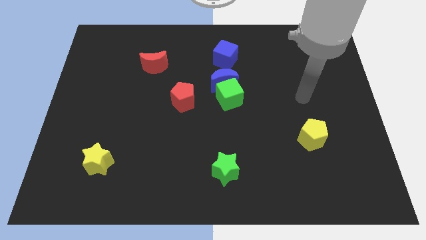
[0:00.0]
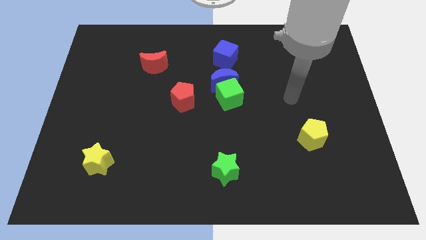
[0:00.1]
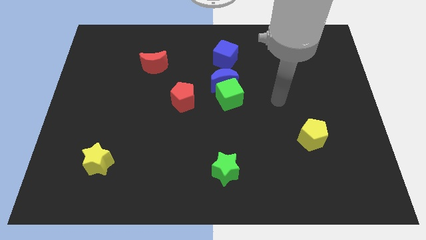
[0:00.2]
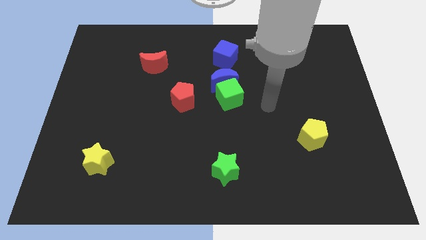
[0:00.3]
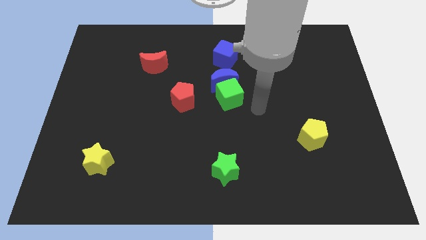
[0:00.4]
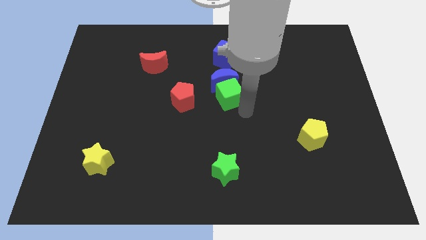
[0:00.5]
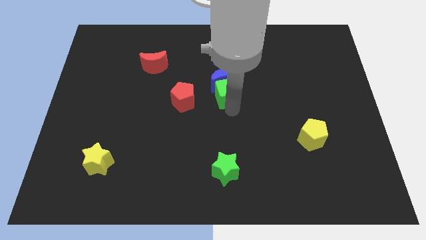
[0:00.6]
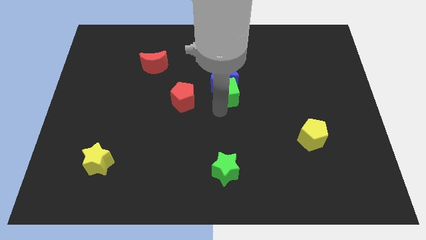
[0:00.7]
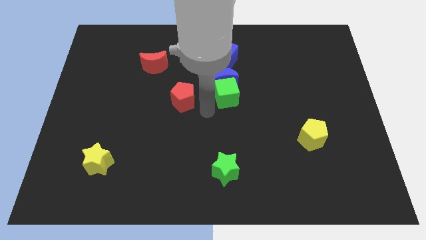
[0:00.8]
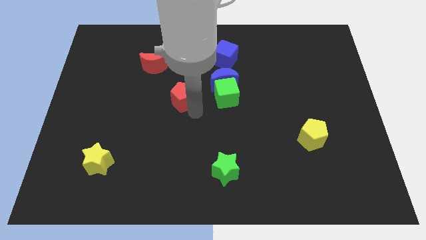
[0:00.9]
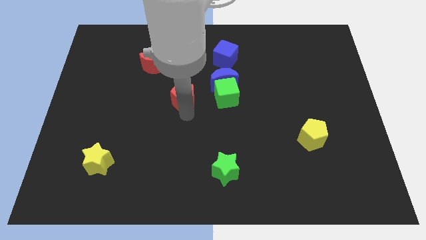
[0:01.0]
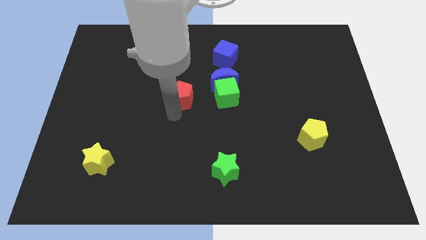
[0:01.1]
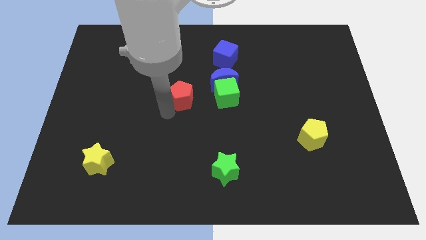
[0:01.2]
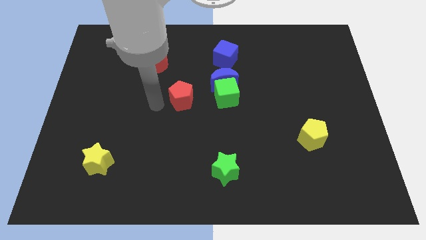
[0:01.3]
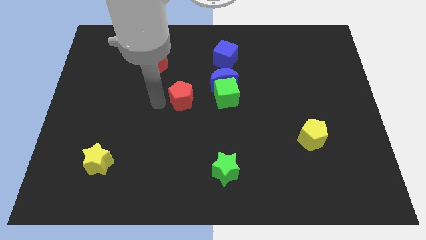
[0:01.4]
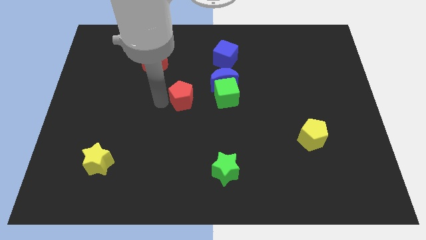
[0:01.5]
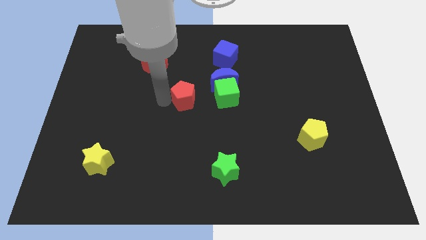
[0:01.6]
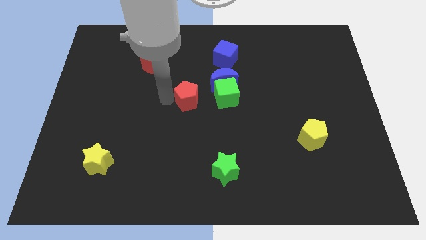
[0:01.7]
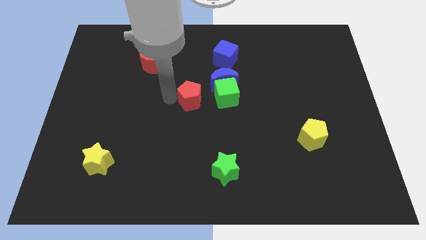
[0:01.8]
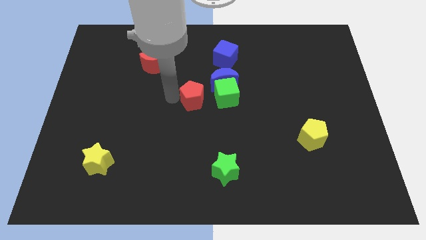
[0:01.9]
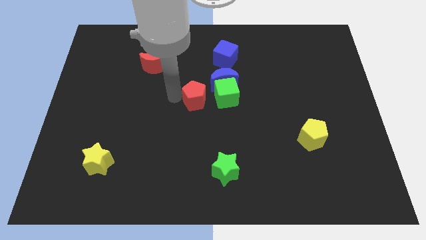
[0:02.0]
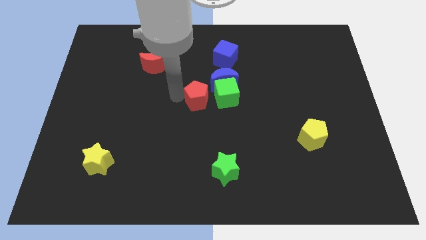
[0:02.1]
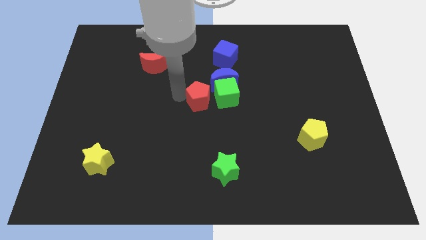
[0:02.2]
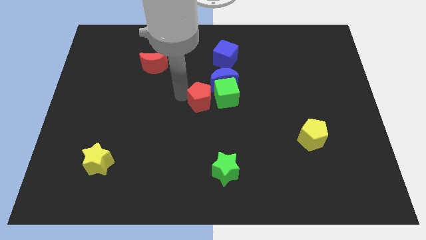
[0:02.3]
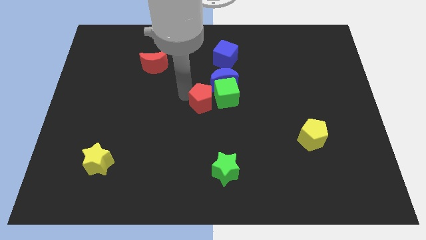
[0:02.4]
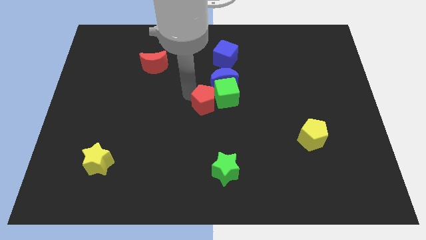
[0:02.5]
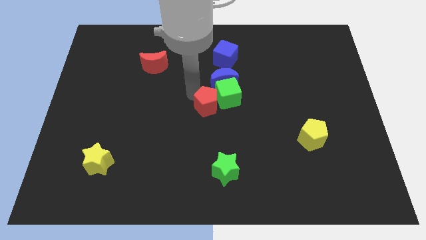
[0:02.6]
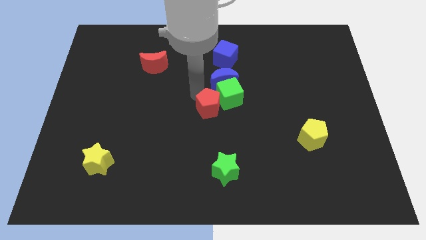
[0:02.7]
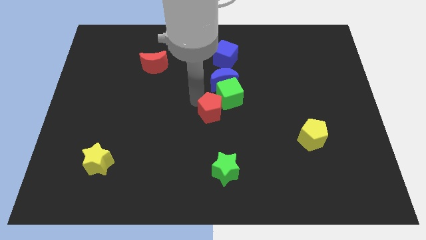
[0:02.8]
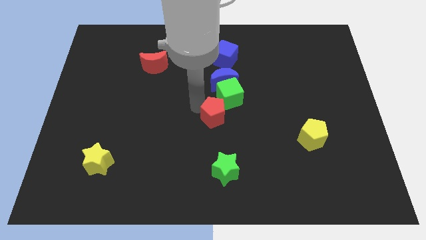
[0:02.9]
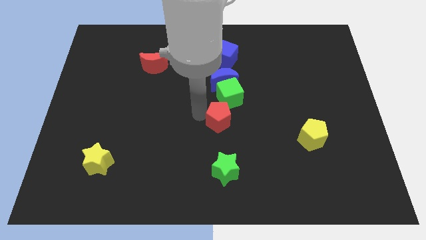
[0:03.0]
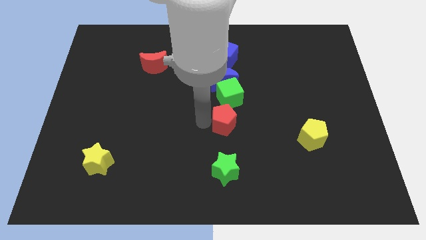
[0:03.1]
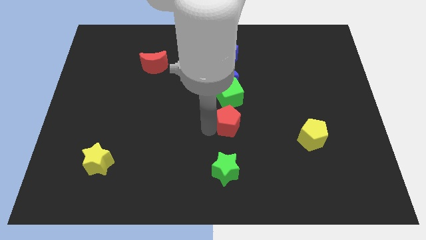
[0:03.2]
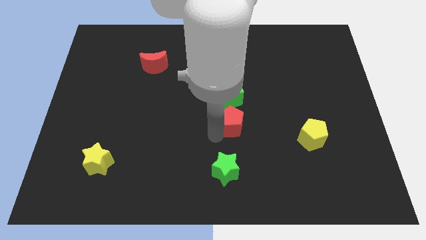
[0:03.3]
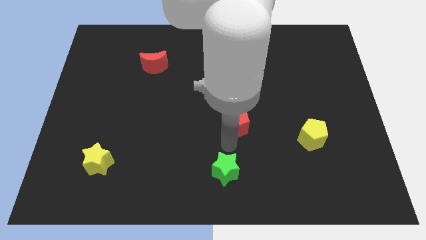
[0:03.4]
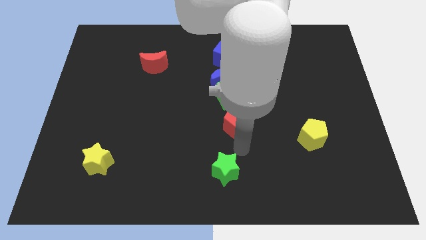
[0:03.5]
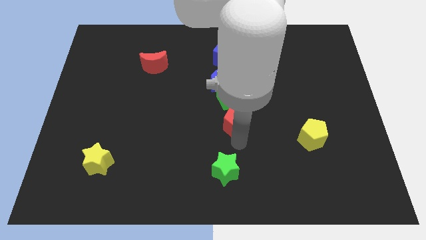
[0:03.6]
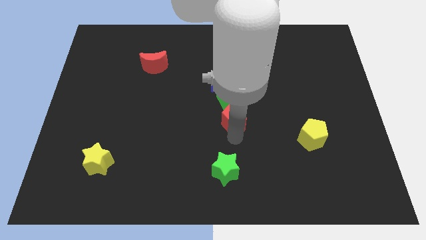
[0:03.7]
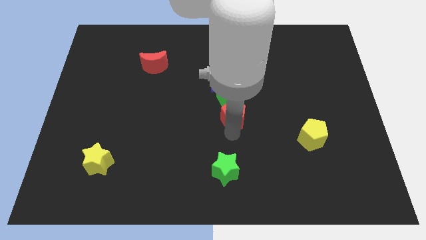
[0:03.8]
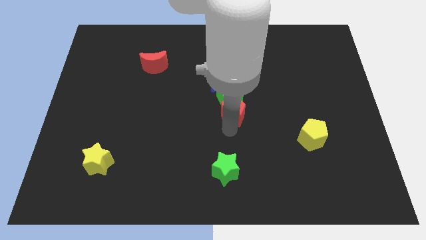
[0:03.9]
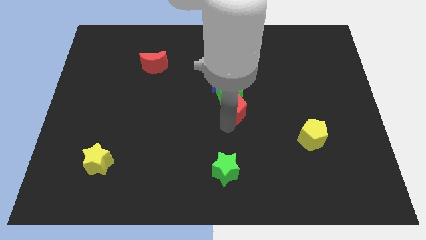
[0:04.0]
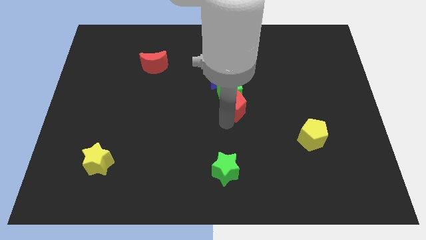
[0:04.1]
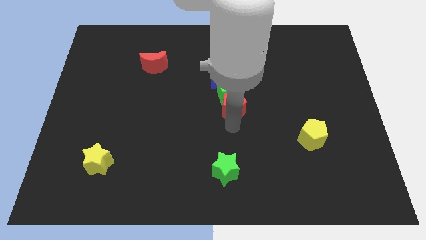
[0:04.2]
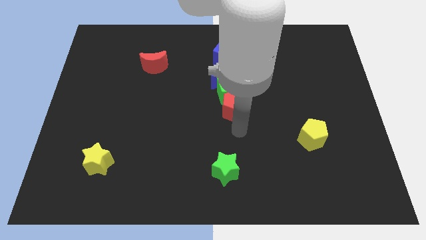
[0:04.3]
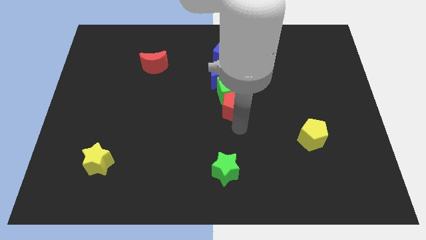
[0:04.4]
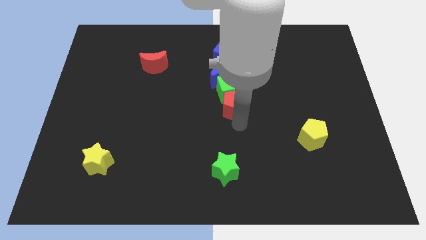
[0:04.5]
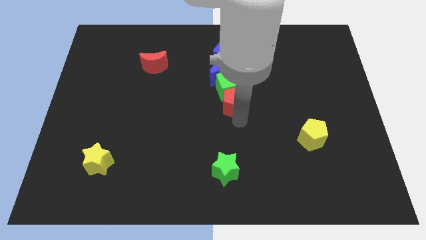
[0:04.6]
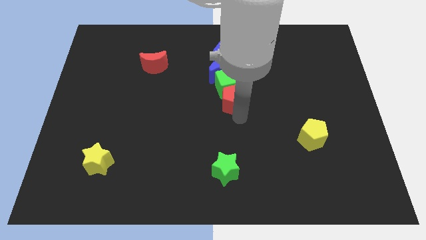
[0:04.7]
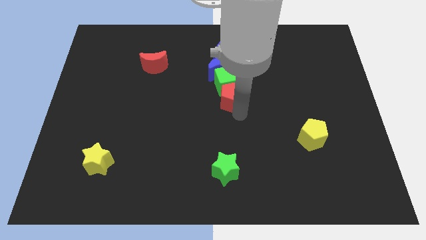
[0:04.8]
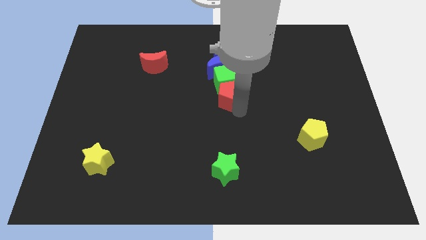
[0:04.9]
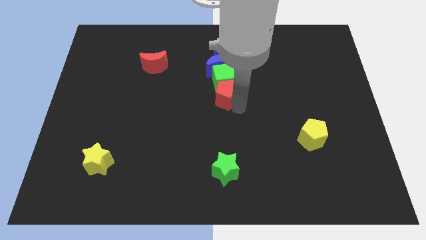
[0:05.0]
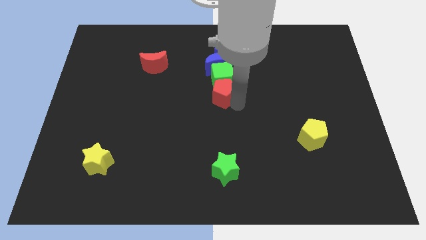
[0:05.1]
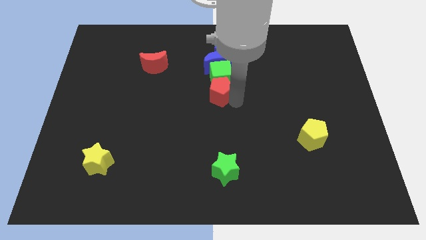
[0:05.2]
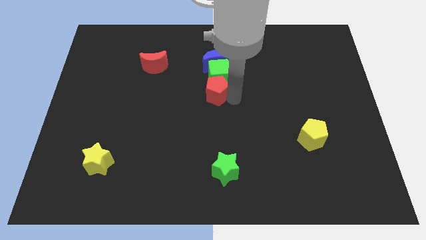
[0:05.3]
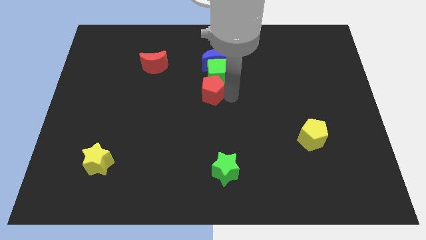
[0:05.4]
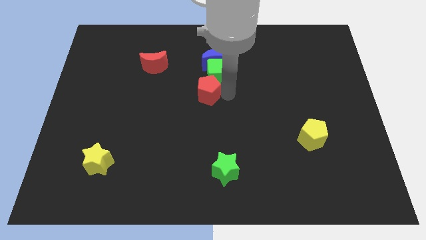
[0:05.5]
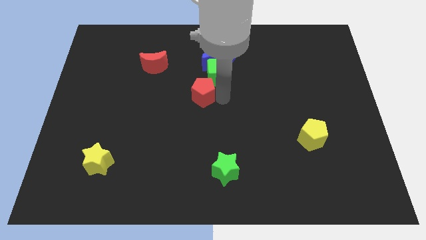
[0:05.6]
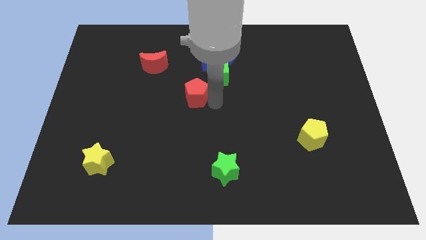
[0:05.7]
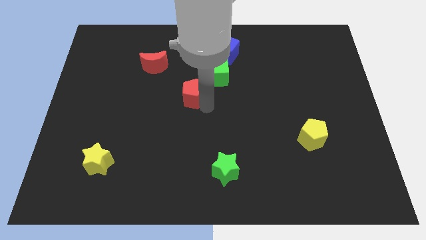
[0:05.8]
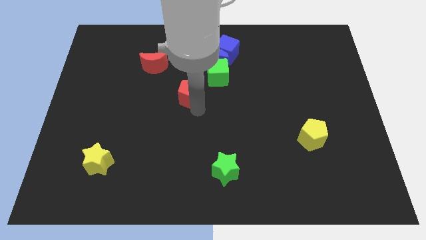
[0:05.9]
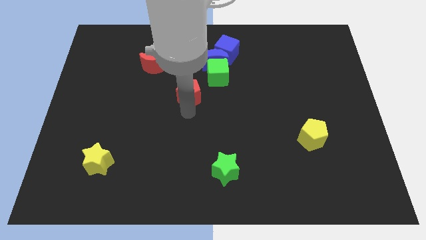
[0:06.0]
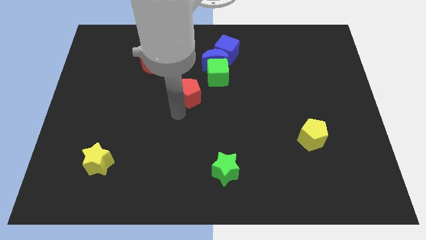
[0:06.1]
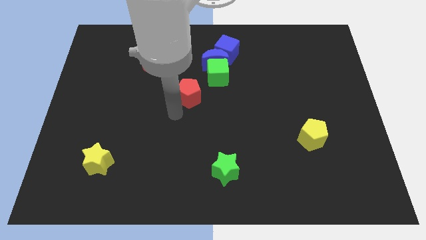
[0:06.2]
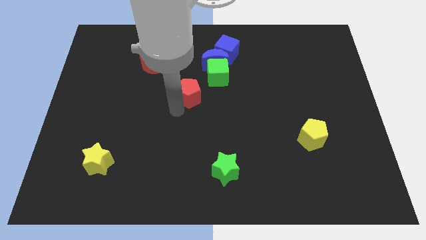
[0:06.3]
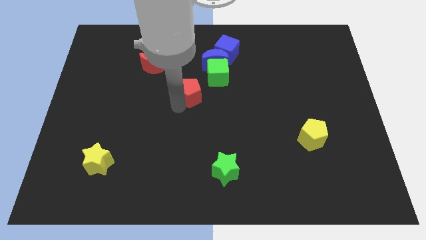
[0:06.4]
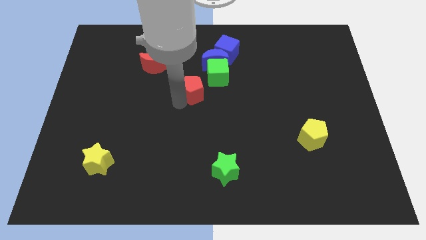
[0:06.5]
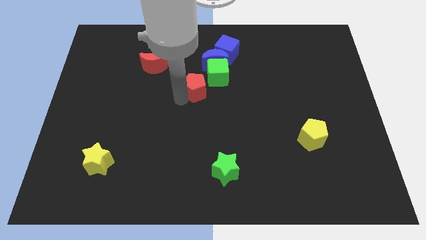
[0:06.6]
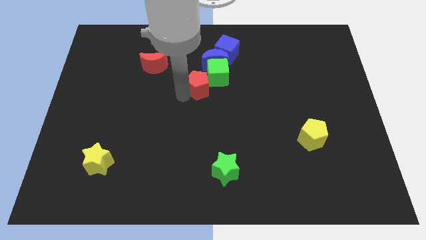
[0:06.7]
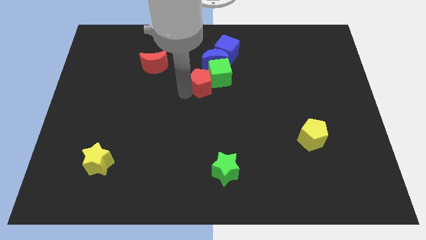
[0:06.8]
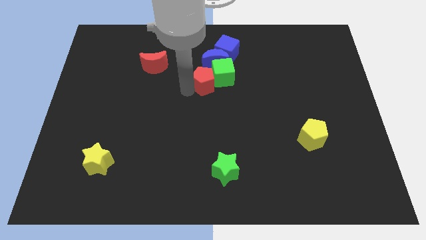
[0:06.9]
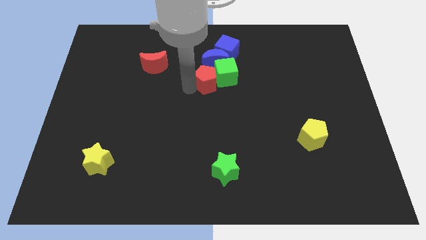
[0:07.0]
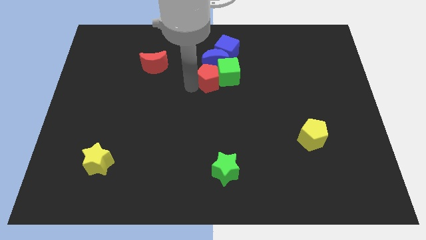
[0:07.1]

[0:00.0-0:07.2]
slide the red pentagon towards the blue moon
